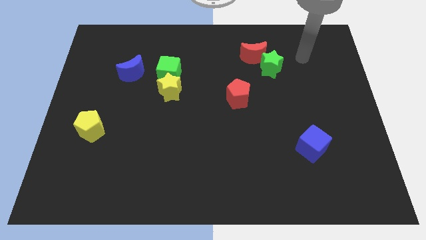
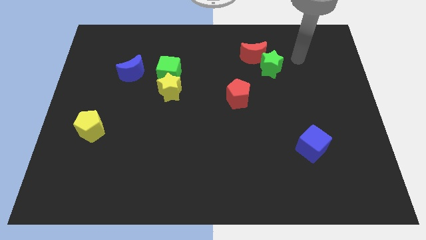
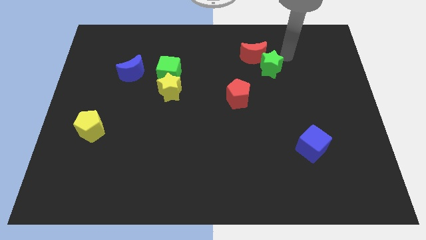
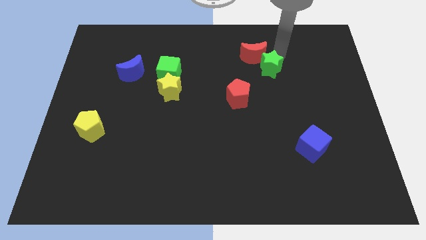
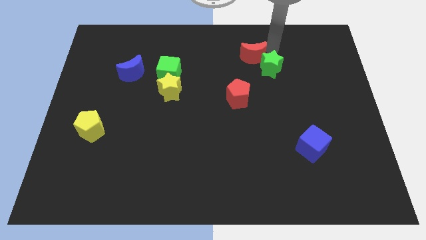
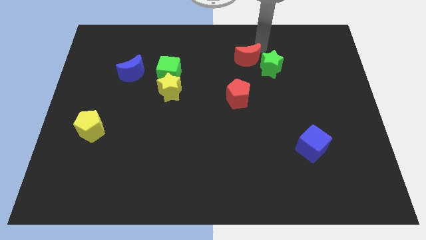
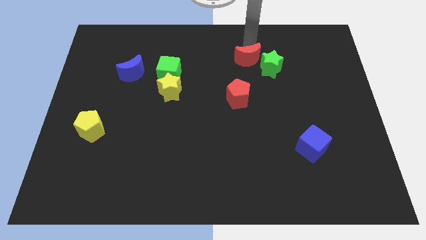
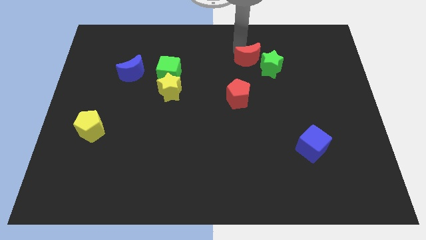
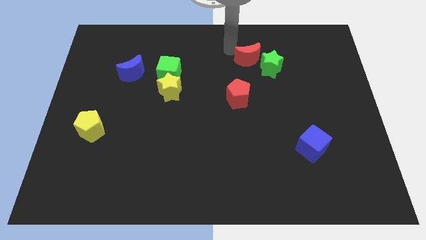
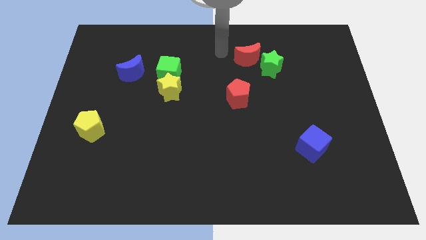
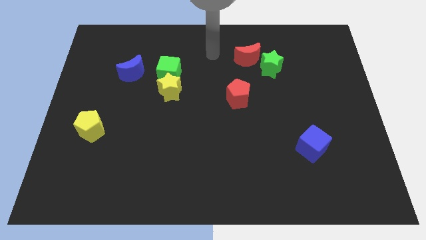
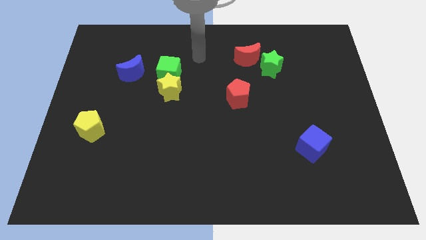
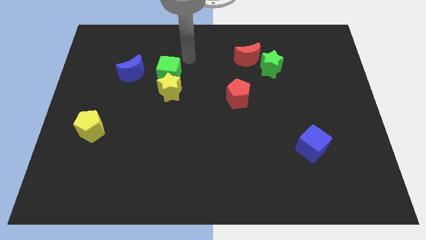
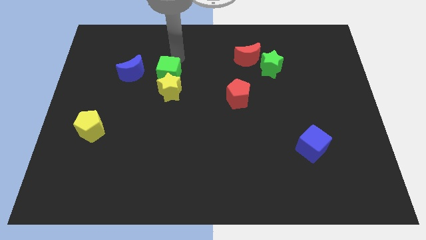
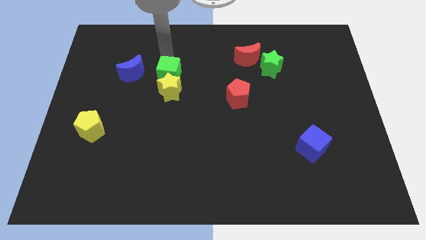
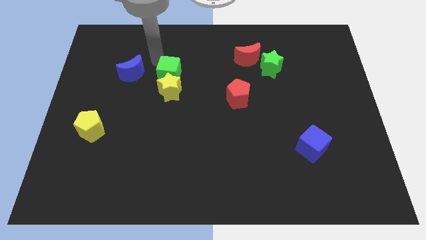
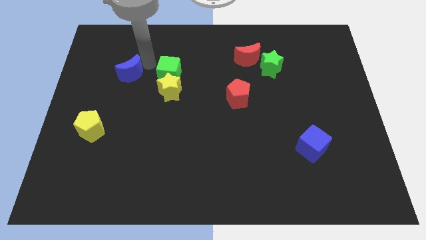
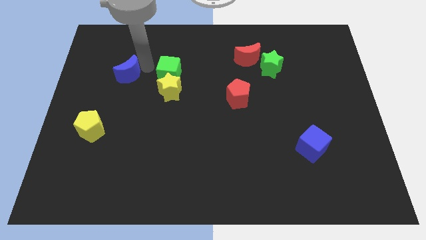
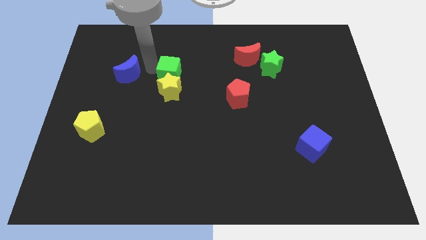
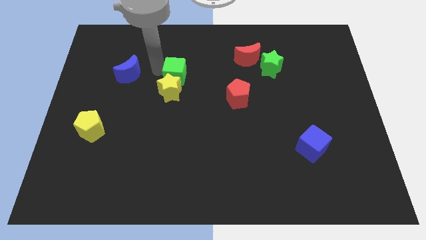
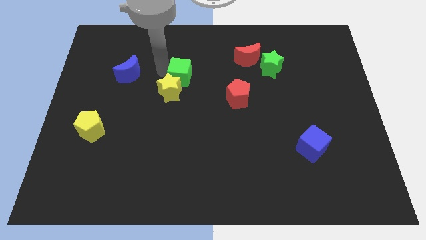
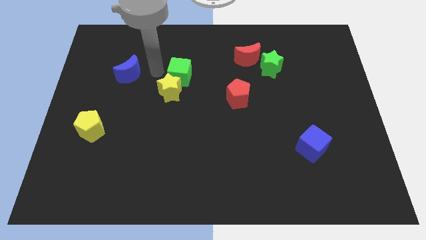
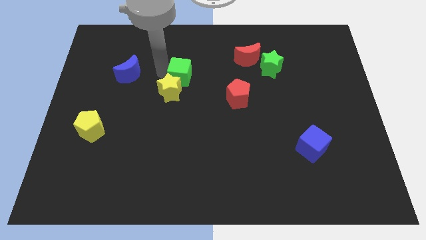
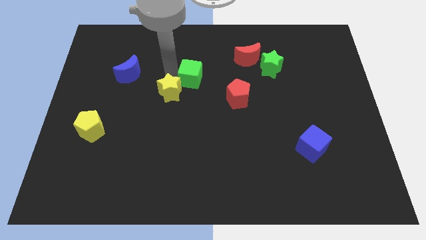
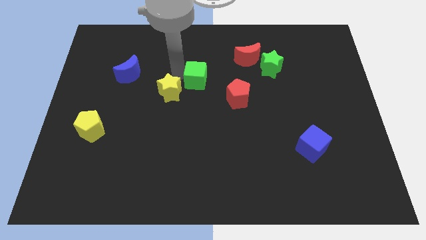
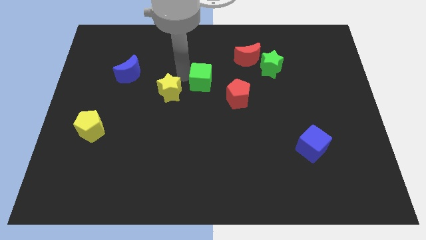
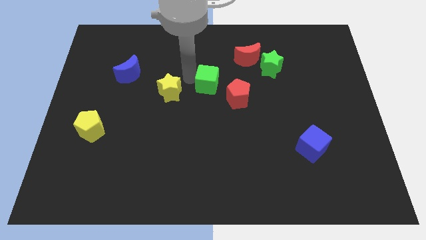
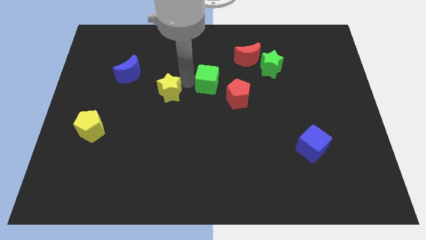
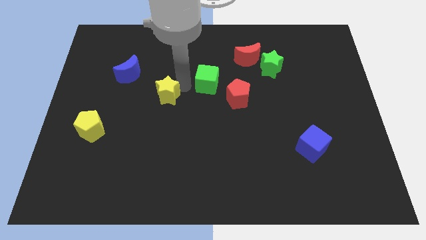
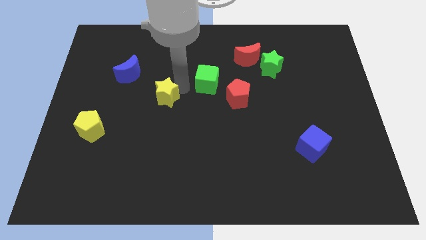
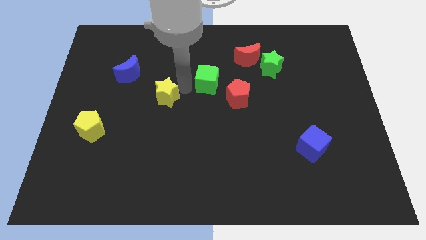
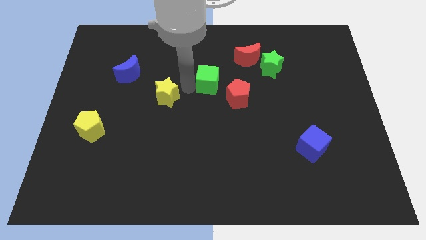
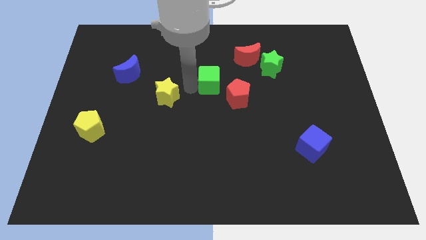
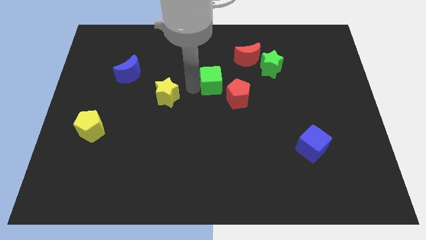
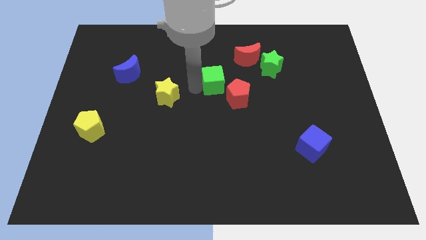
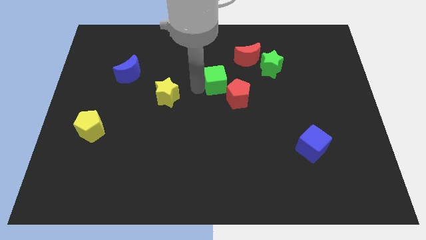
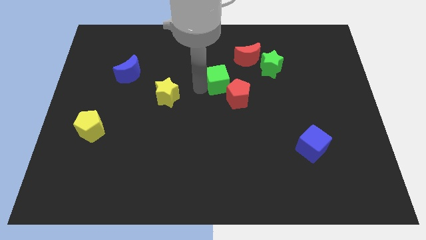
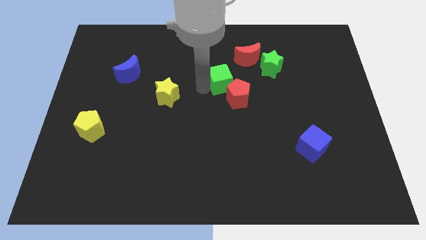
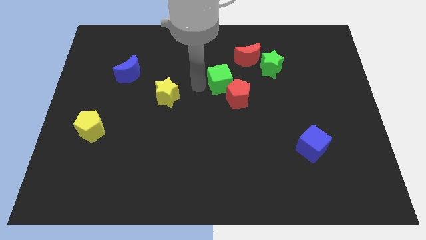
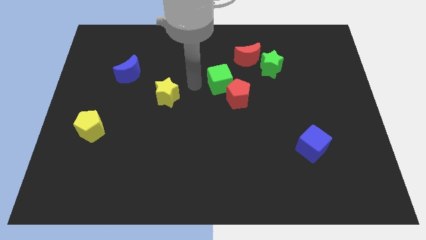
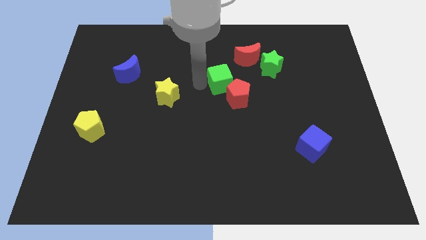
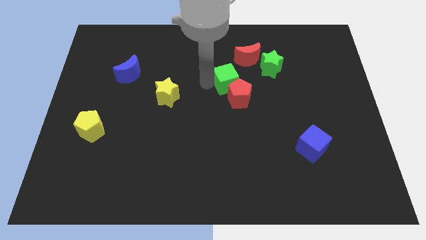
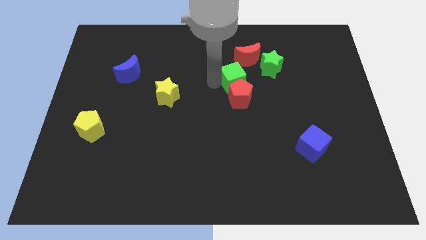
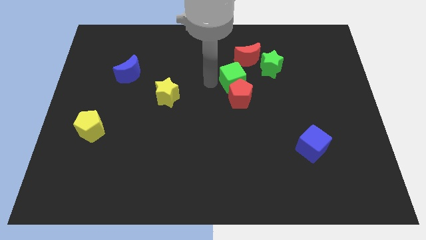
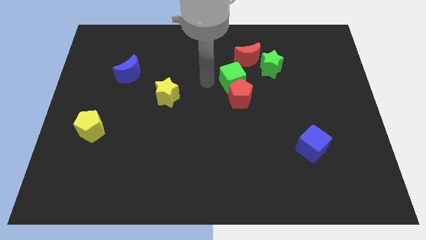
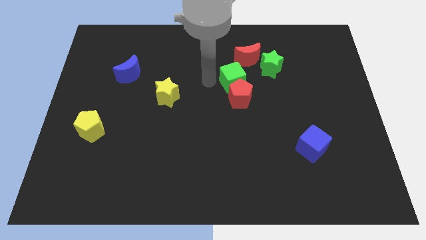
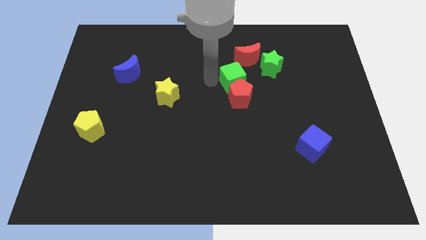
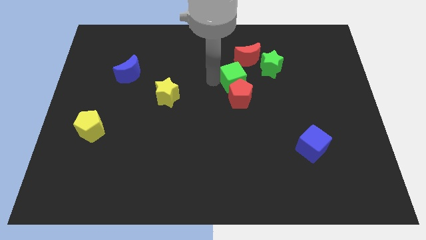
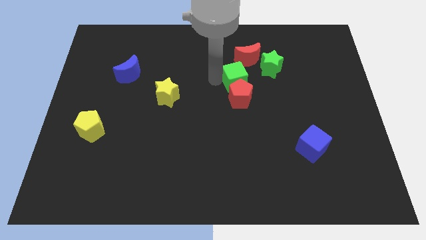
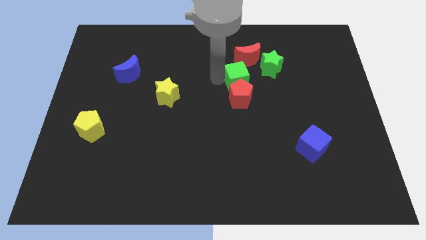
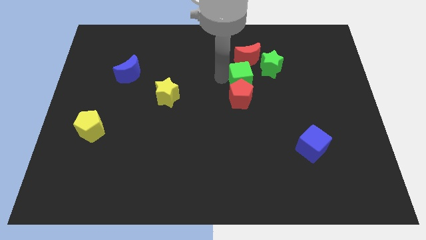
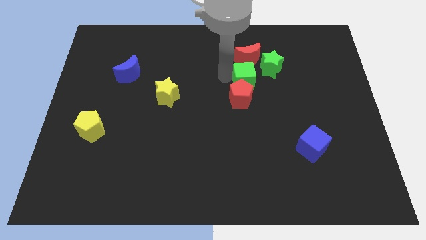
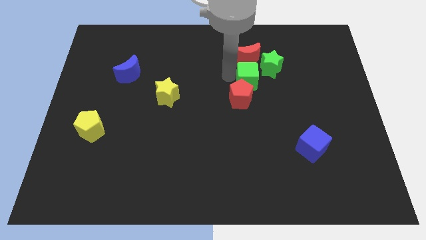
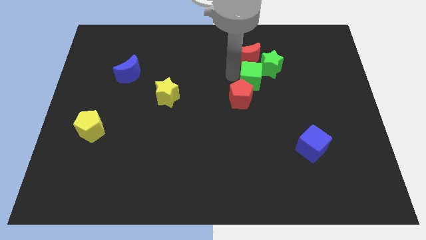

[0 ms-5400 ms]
push the green cube to the right

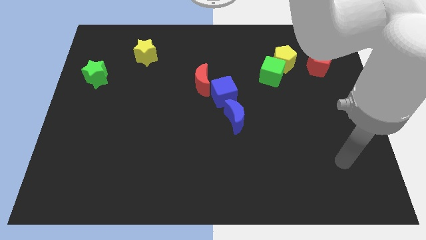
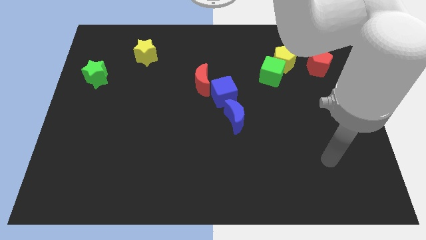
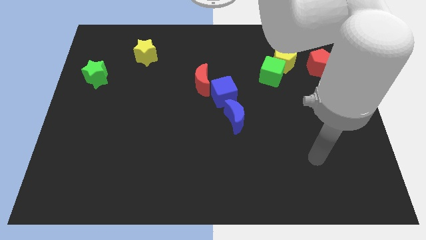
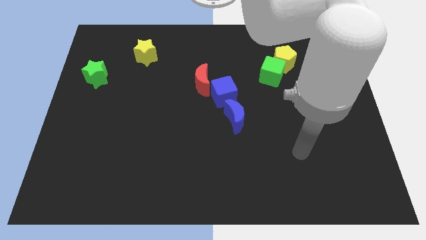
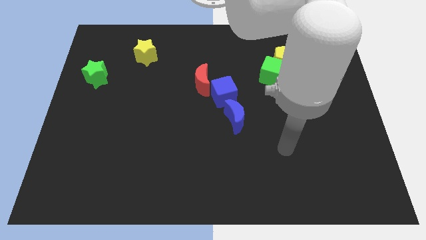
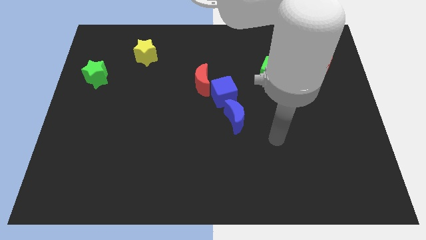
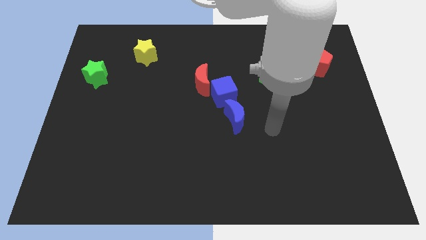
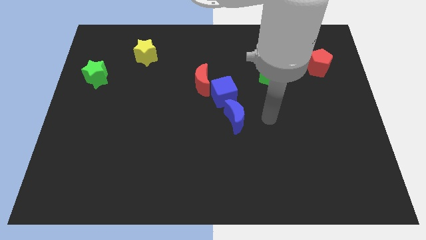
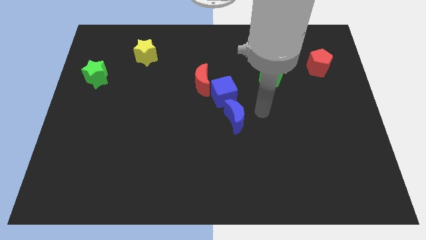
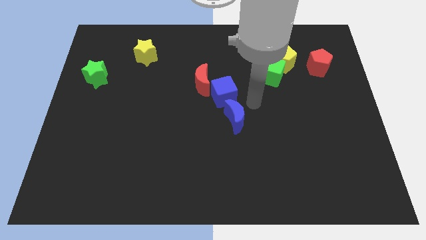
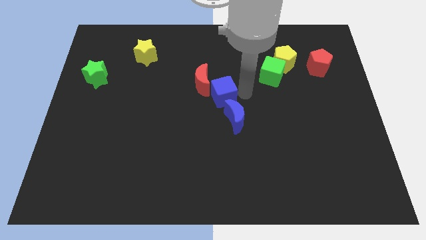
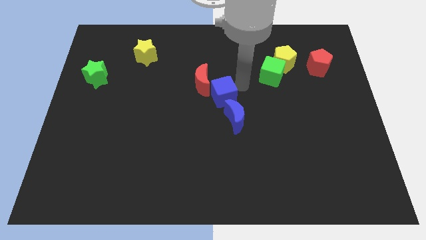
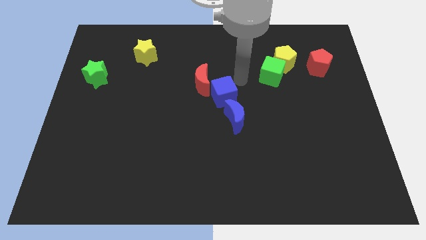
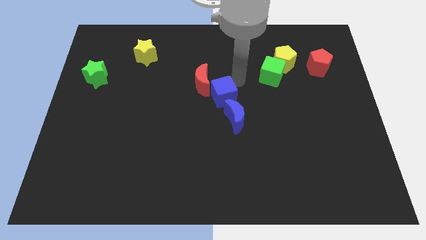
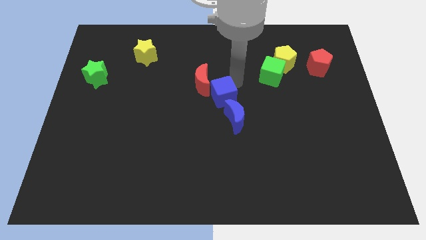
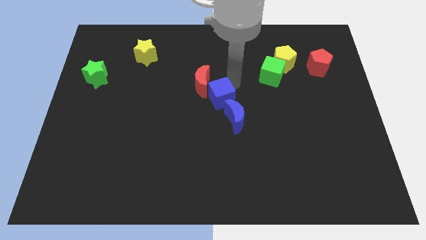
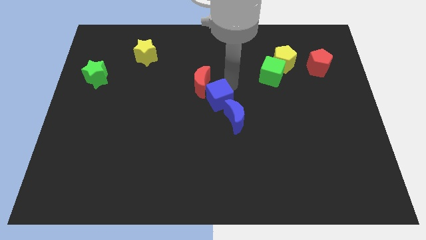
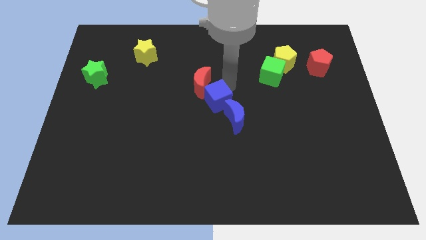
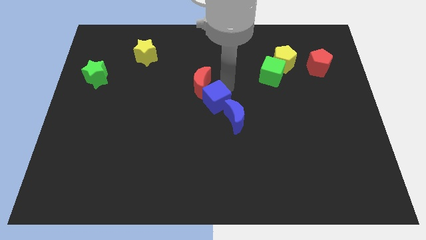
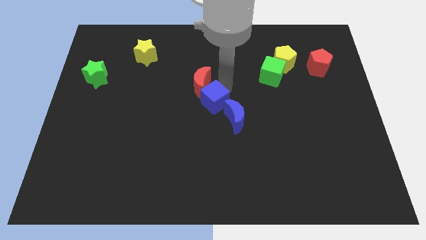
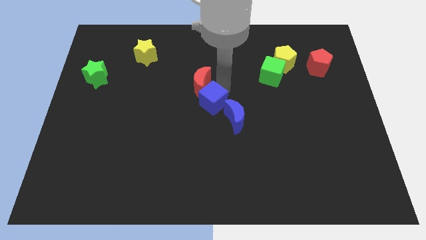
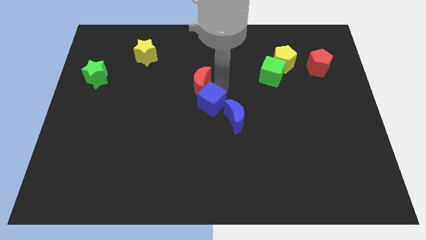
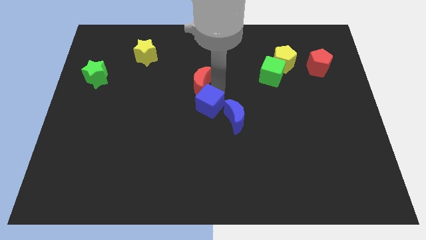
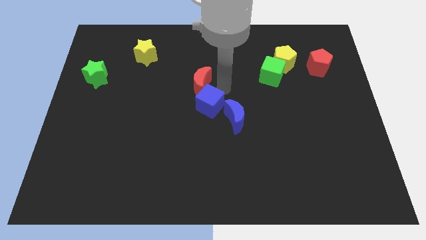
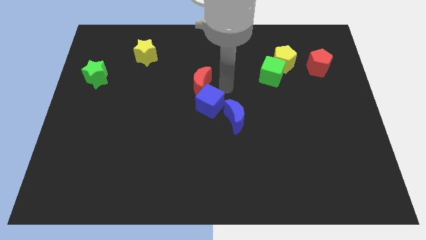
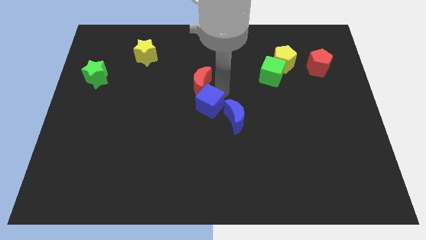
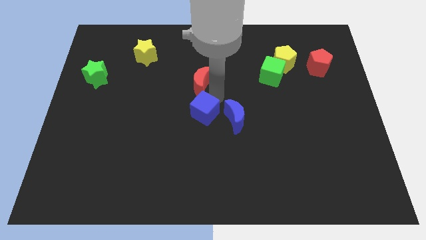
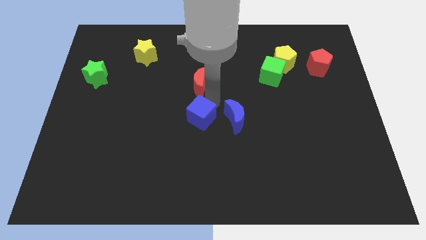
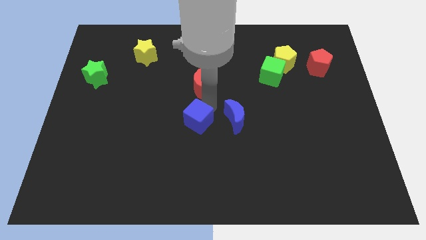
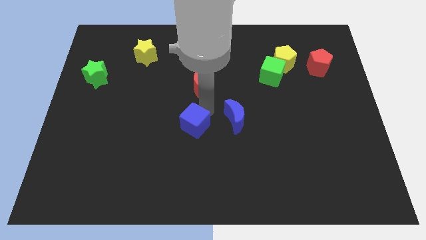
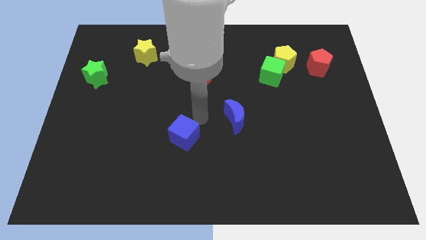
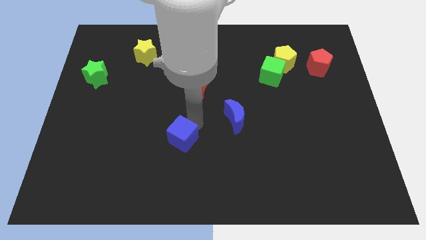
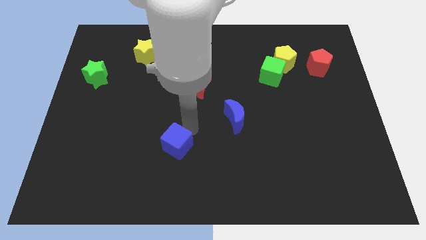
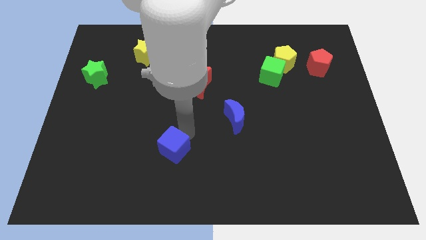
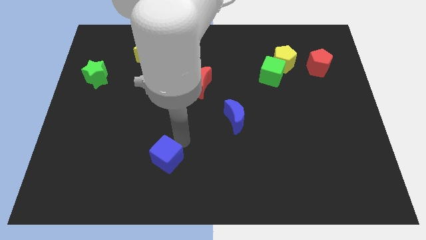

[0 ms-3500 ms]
slide the blue cube downwards and then left
